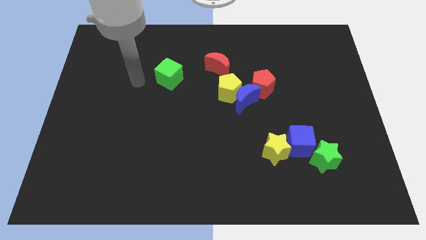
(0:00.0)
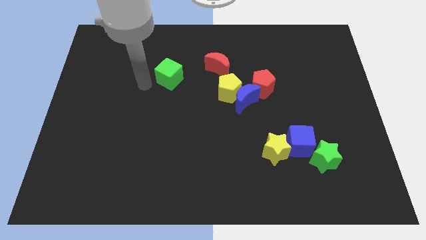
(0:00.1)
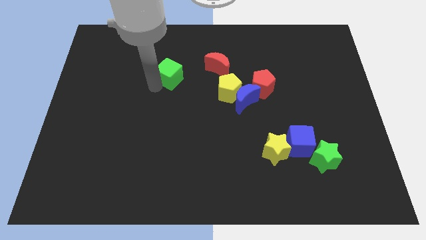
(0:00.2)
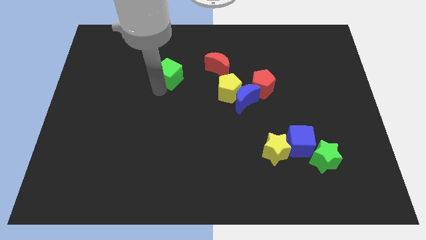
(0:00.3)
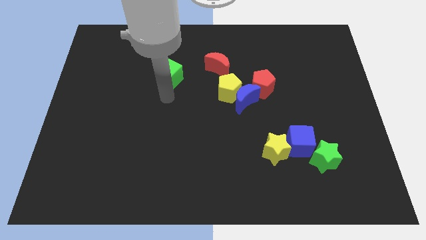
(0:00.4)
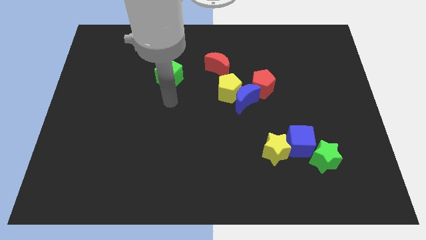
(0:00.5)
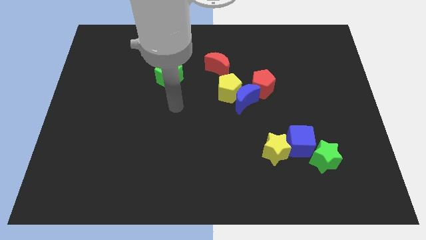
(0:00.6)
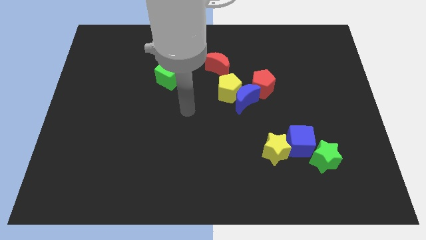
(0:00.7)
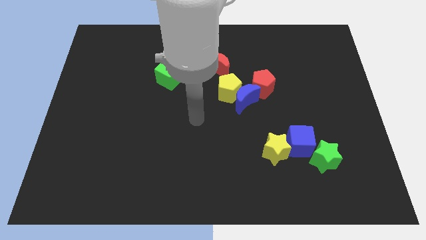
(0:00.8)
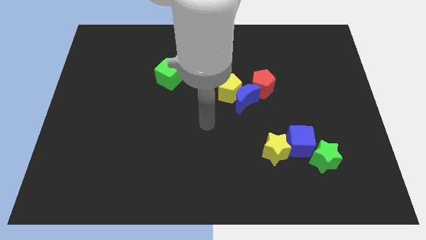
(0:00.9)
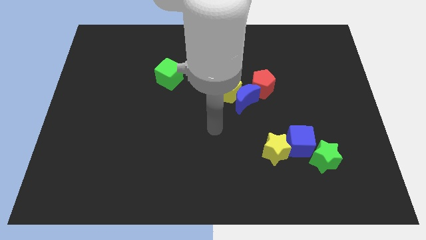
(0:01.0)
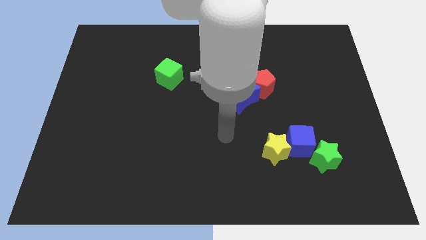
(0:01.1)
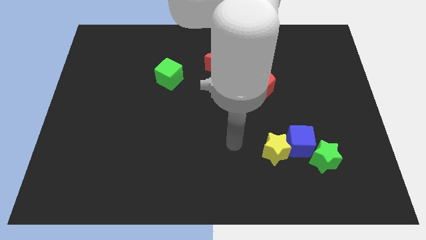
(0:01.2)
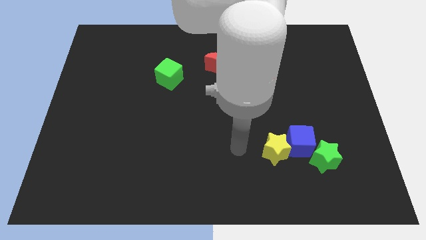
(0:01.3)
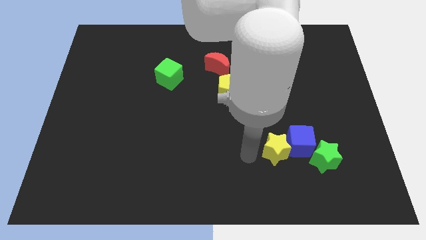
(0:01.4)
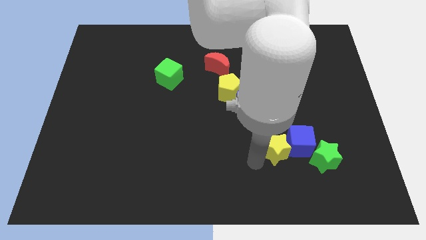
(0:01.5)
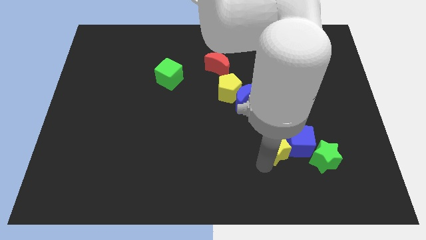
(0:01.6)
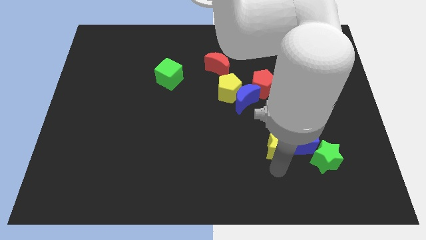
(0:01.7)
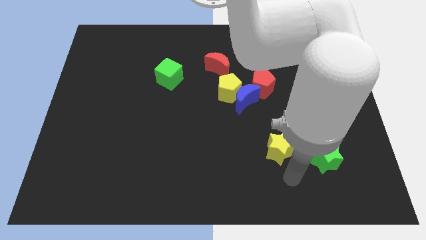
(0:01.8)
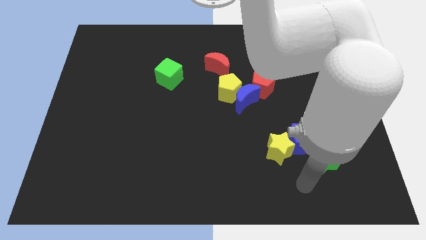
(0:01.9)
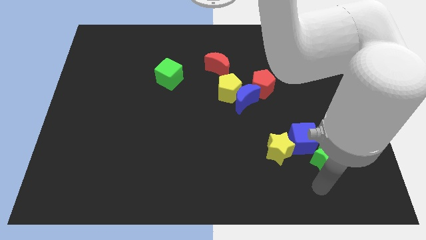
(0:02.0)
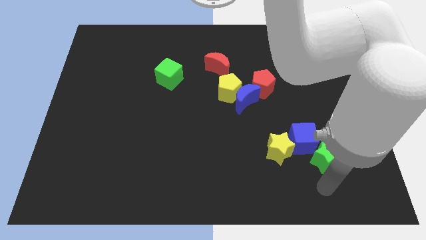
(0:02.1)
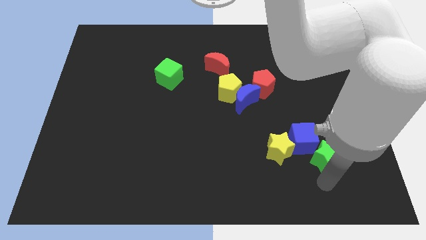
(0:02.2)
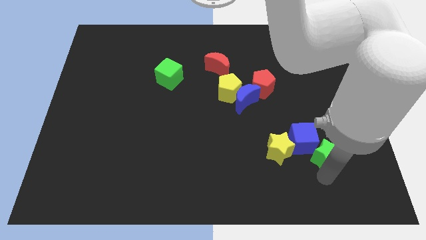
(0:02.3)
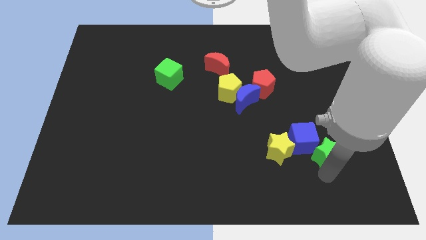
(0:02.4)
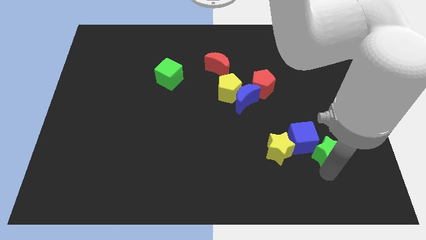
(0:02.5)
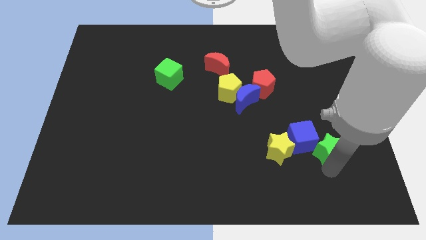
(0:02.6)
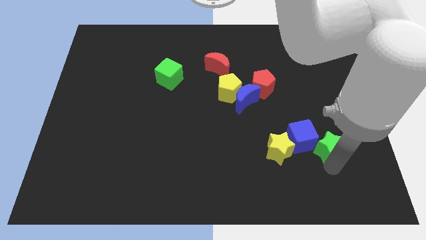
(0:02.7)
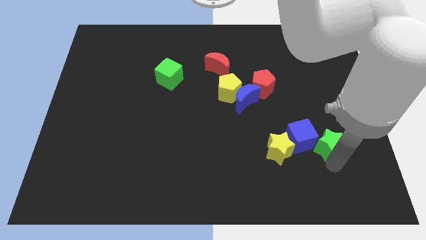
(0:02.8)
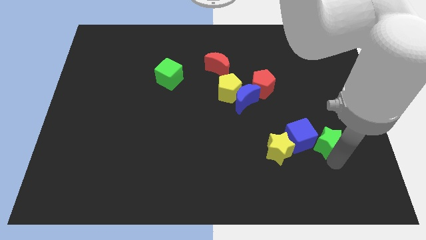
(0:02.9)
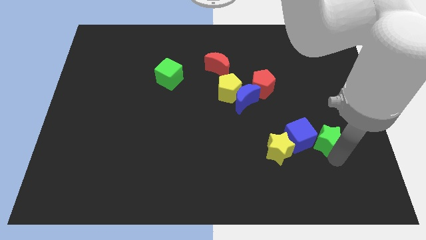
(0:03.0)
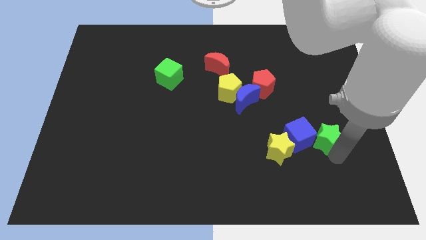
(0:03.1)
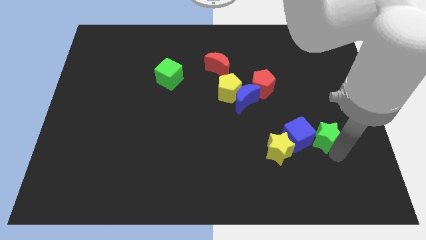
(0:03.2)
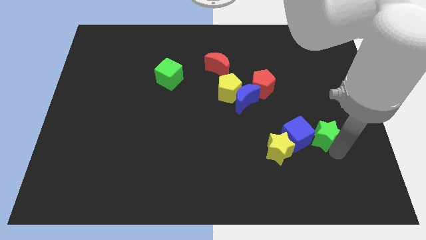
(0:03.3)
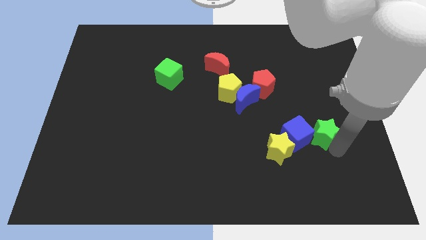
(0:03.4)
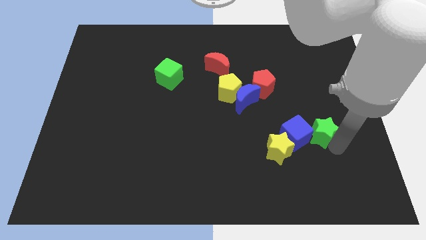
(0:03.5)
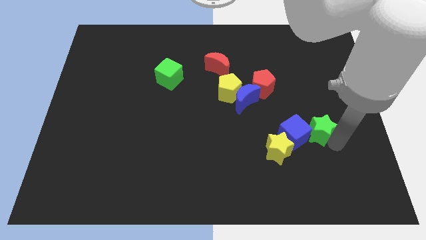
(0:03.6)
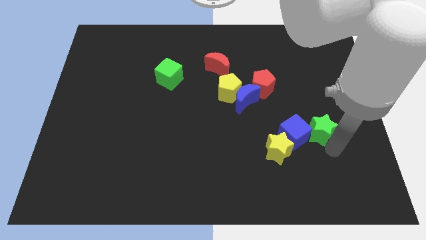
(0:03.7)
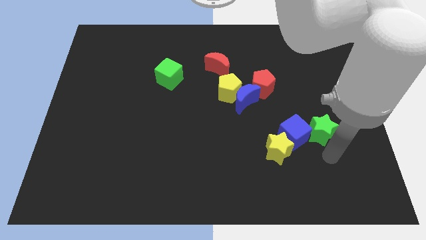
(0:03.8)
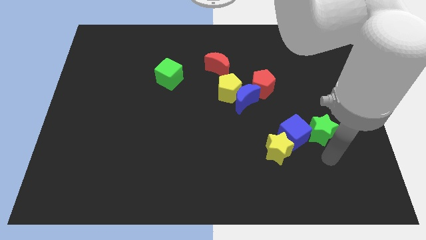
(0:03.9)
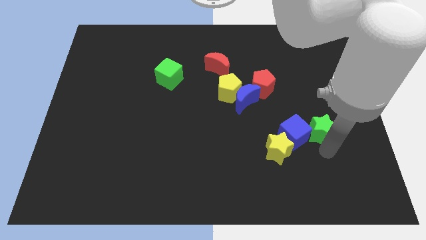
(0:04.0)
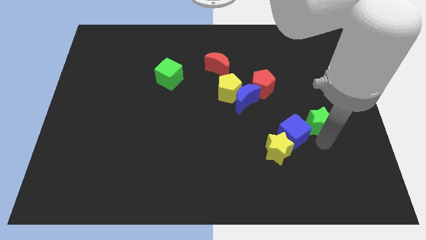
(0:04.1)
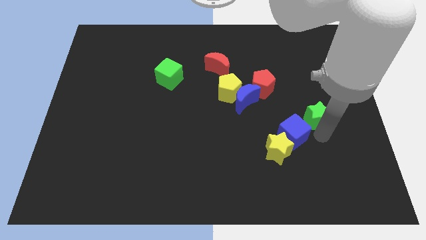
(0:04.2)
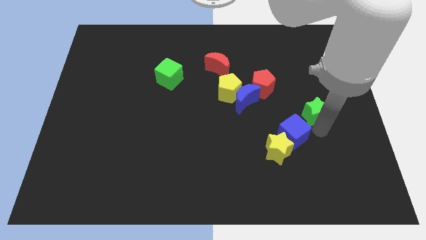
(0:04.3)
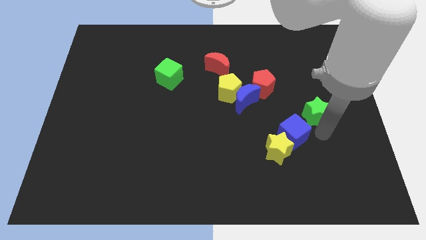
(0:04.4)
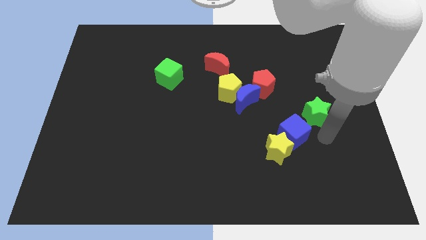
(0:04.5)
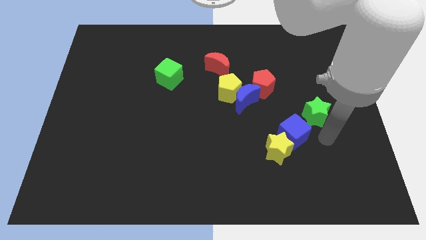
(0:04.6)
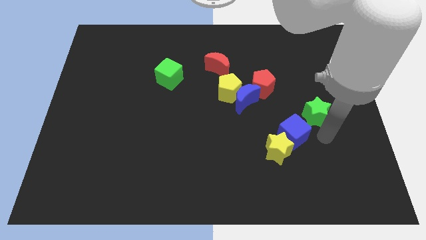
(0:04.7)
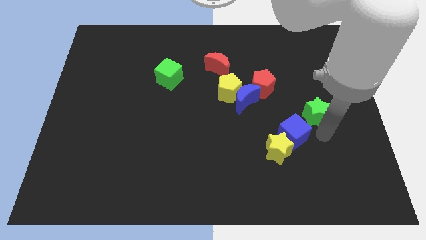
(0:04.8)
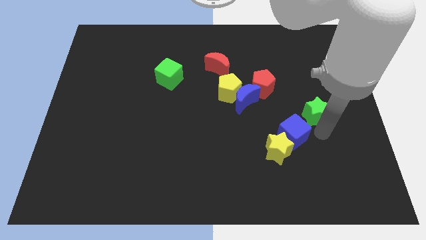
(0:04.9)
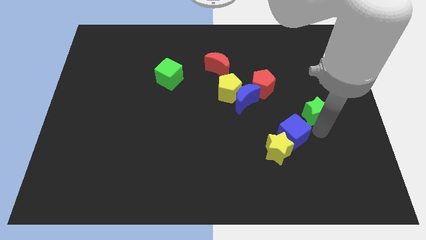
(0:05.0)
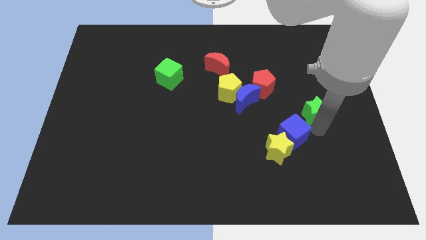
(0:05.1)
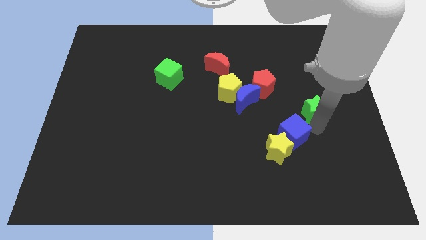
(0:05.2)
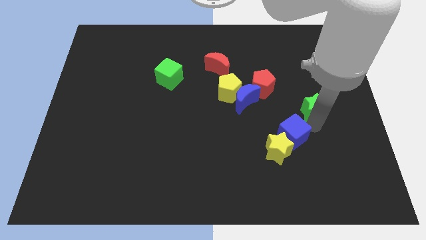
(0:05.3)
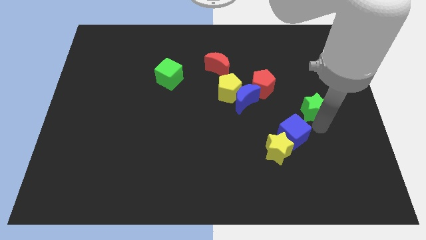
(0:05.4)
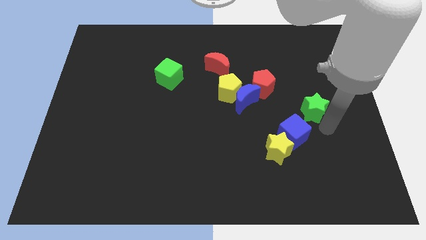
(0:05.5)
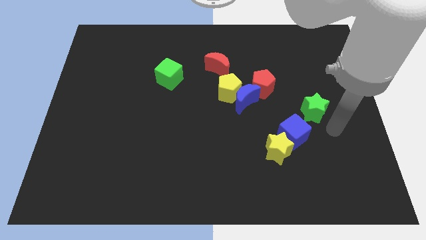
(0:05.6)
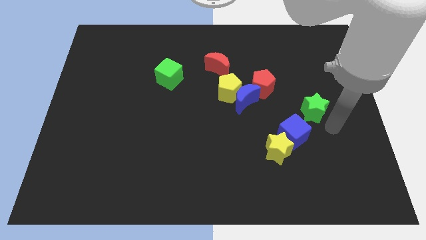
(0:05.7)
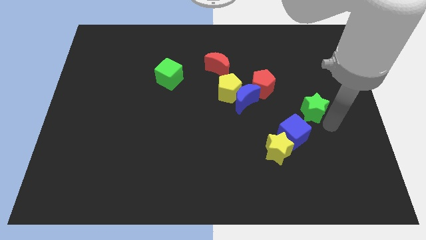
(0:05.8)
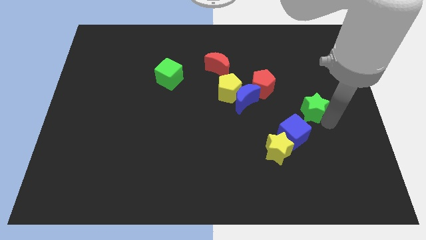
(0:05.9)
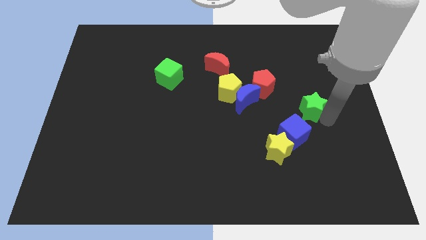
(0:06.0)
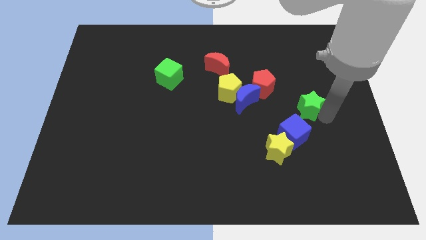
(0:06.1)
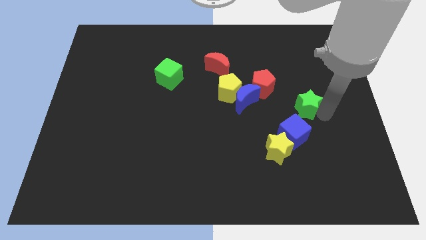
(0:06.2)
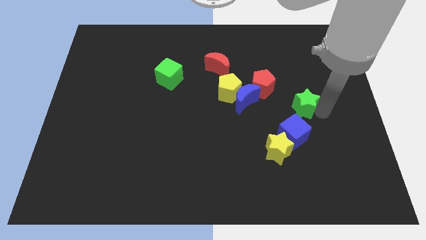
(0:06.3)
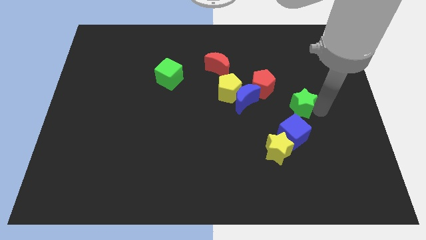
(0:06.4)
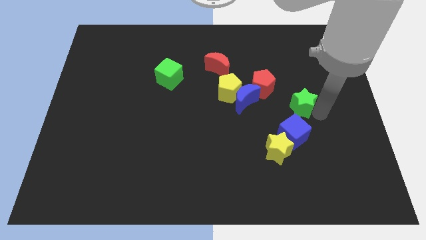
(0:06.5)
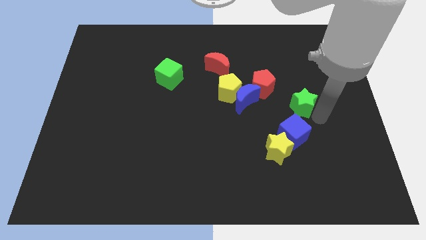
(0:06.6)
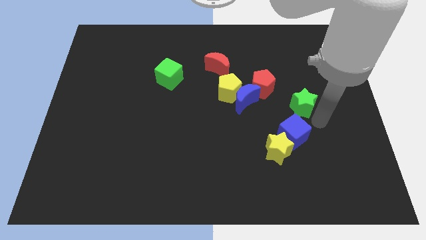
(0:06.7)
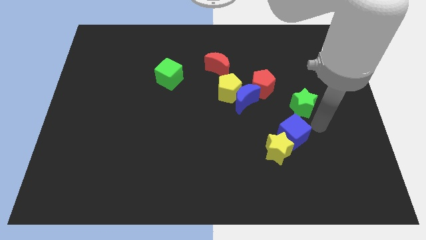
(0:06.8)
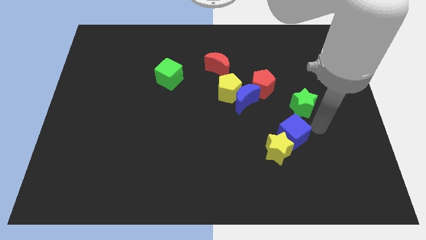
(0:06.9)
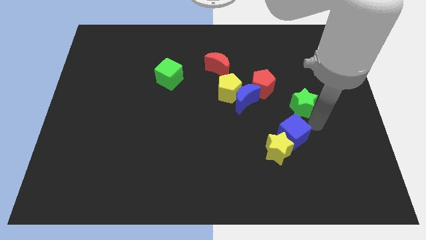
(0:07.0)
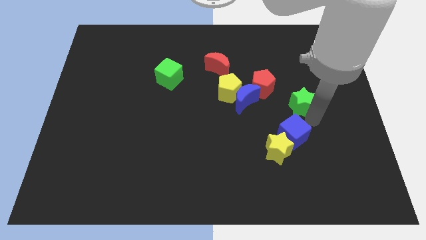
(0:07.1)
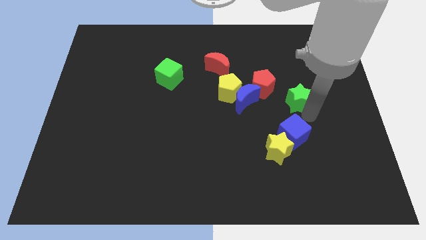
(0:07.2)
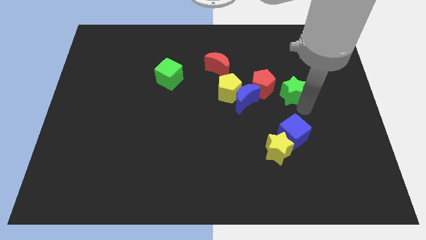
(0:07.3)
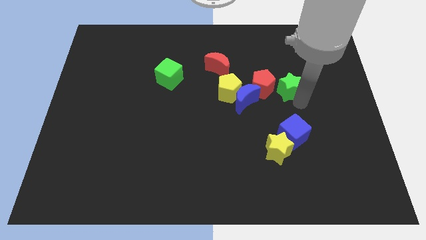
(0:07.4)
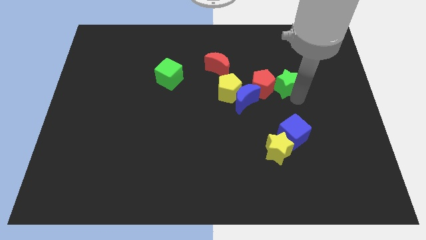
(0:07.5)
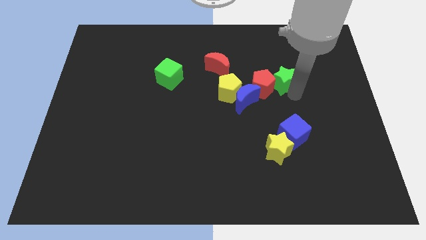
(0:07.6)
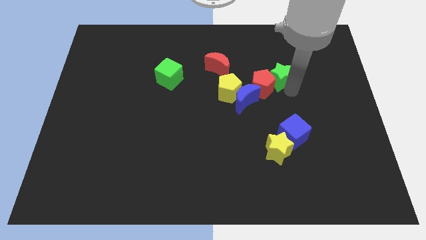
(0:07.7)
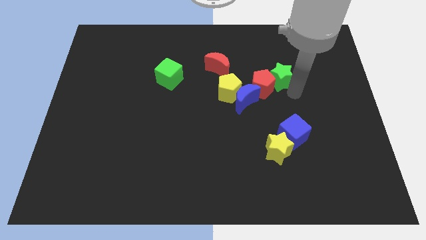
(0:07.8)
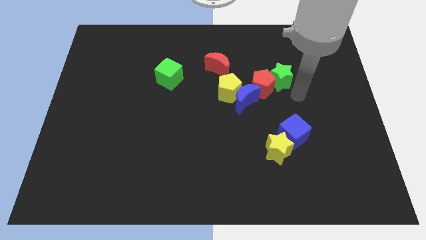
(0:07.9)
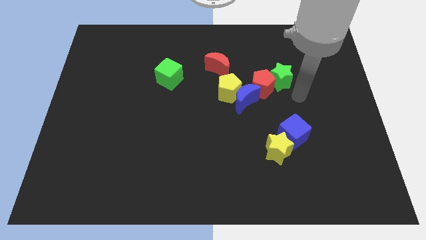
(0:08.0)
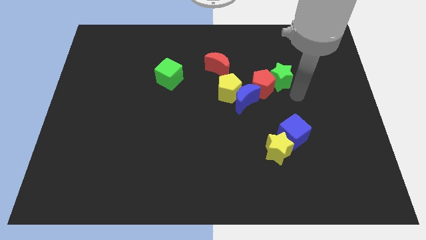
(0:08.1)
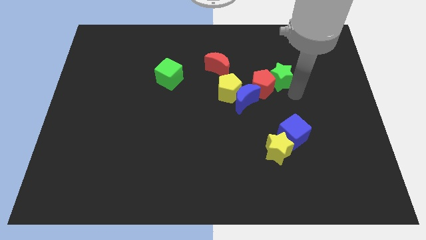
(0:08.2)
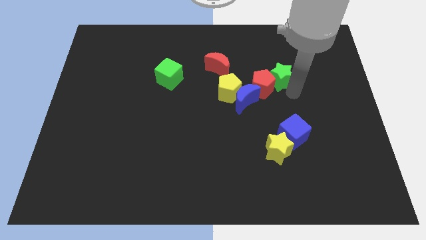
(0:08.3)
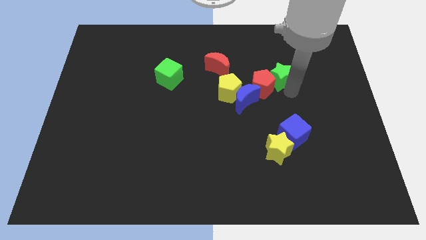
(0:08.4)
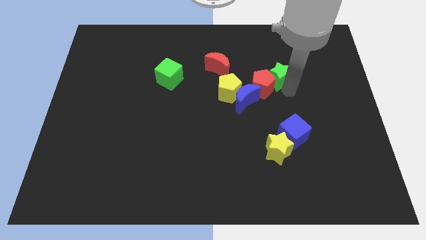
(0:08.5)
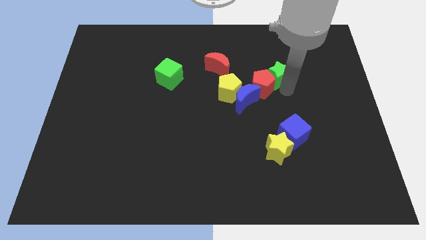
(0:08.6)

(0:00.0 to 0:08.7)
put the green star above the red pentagon
